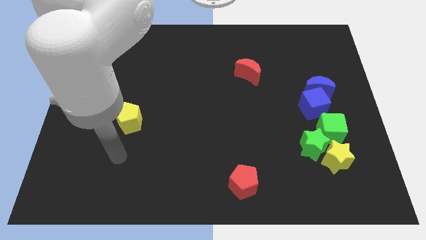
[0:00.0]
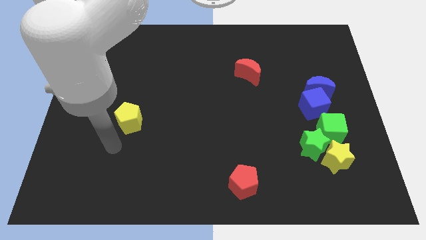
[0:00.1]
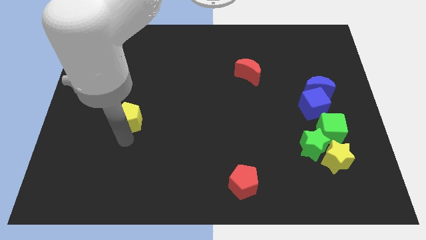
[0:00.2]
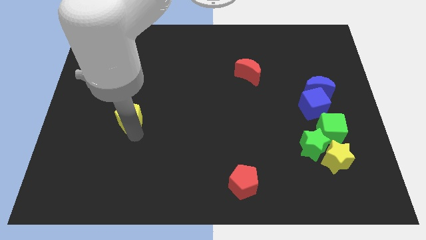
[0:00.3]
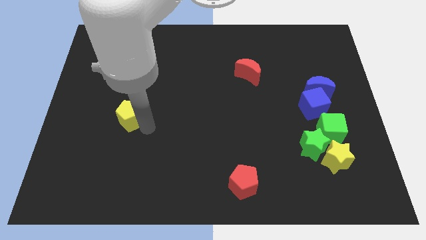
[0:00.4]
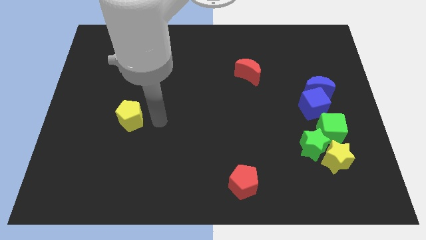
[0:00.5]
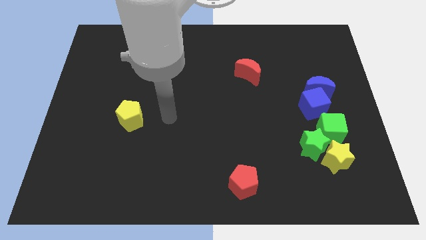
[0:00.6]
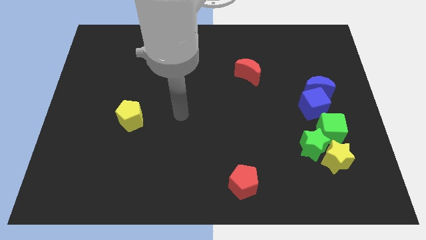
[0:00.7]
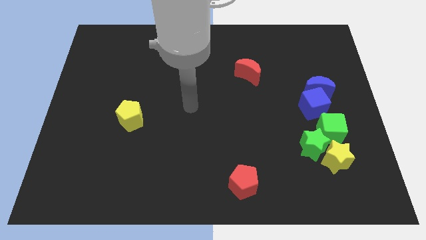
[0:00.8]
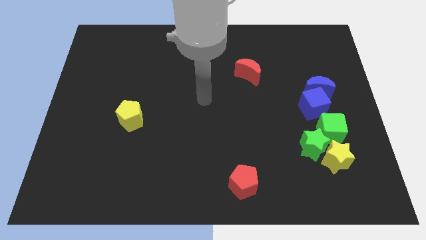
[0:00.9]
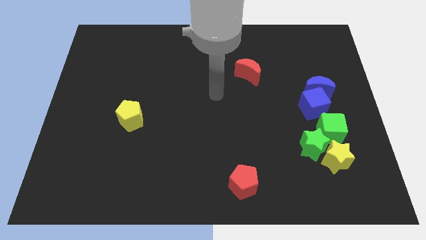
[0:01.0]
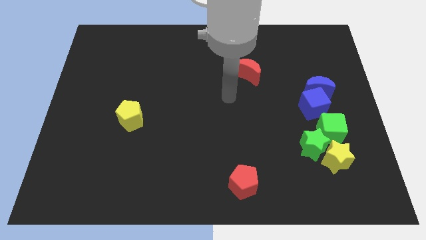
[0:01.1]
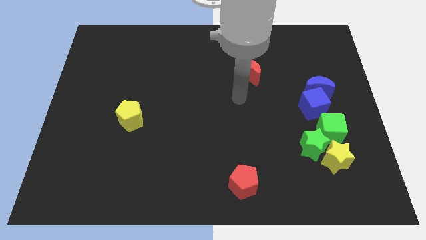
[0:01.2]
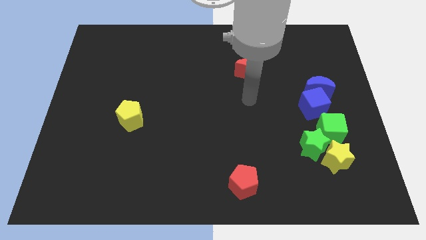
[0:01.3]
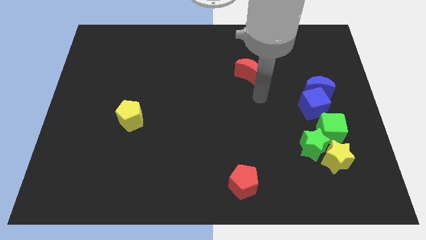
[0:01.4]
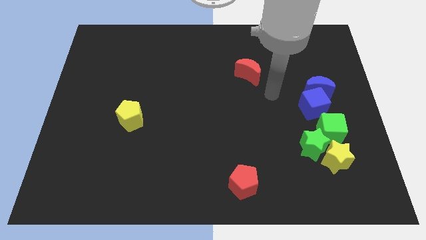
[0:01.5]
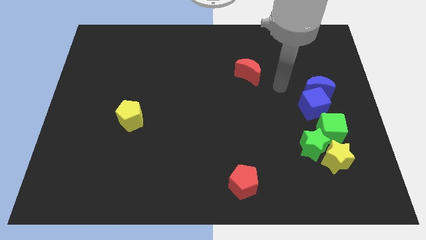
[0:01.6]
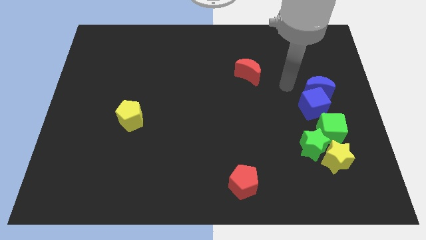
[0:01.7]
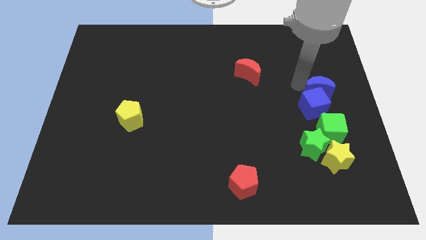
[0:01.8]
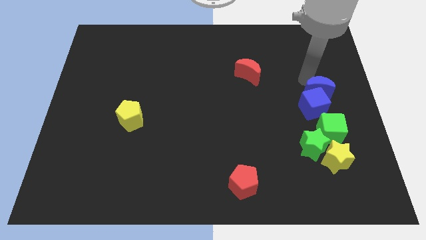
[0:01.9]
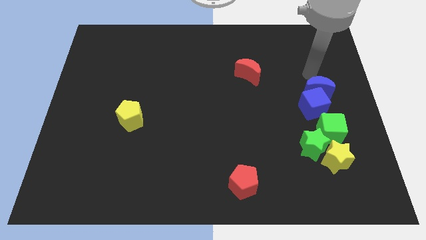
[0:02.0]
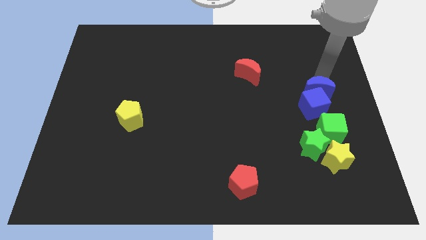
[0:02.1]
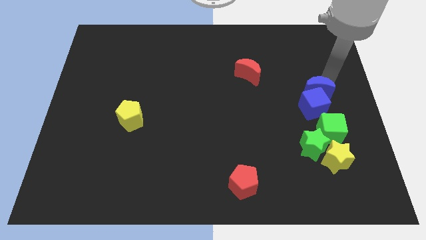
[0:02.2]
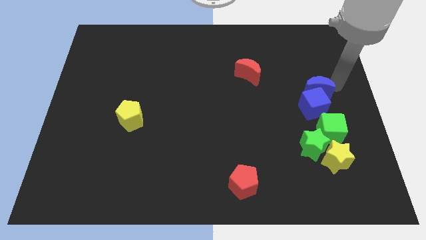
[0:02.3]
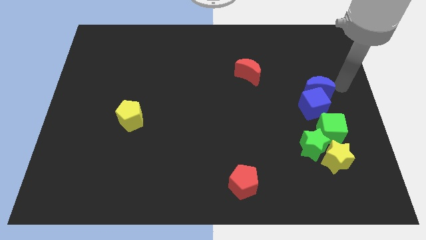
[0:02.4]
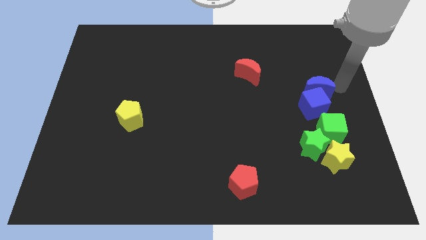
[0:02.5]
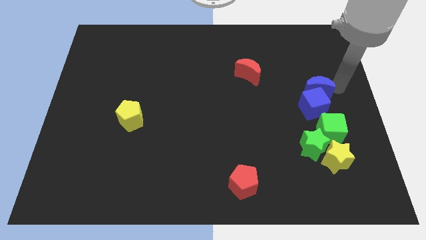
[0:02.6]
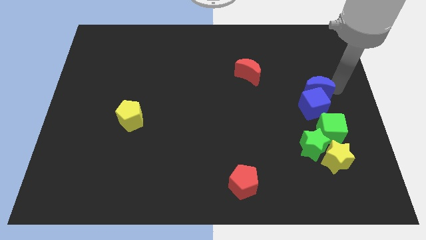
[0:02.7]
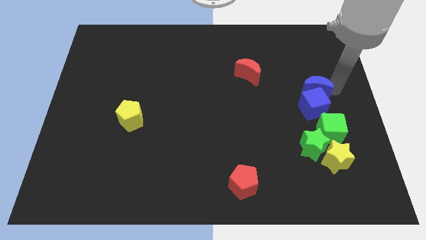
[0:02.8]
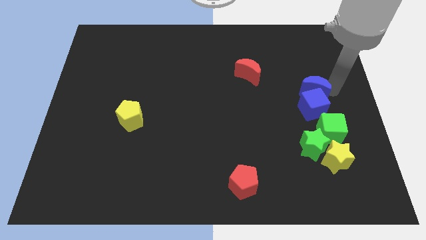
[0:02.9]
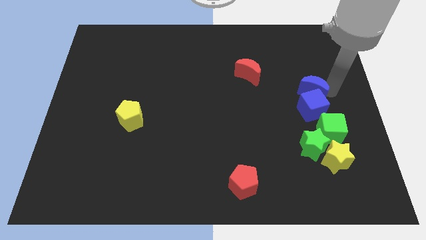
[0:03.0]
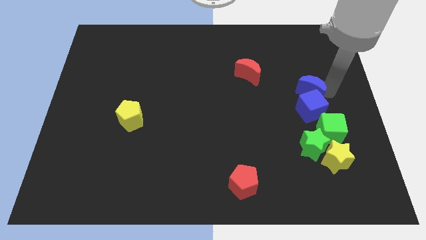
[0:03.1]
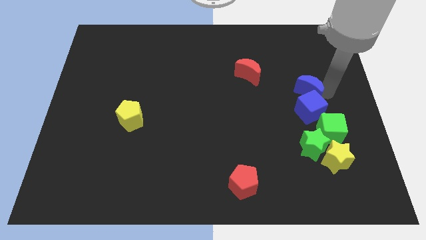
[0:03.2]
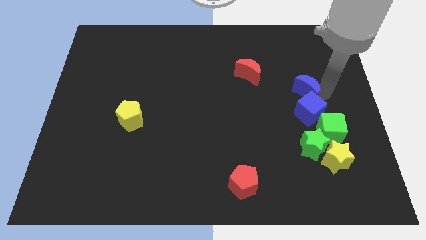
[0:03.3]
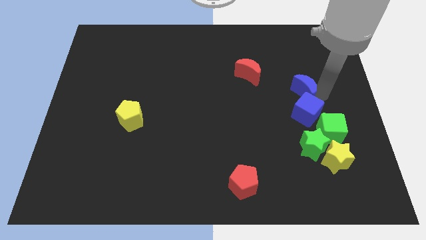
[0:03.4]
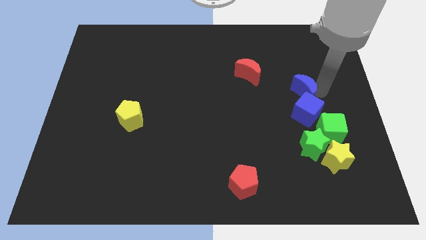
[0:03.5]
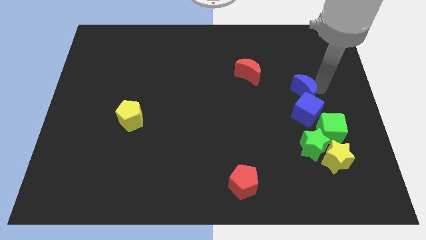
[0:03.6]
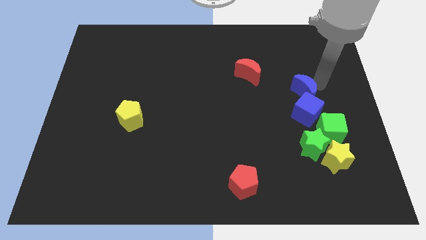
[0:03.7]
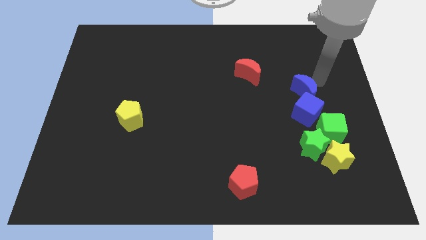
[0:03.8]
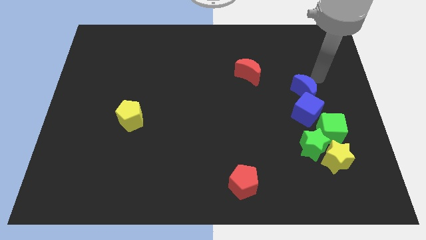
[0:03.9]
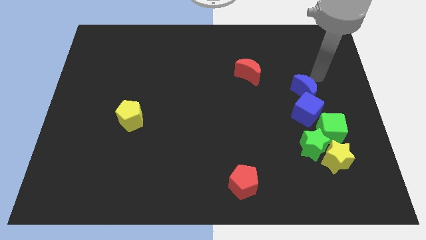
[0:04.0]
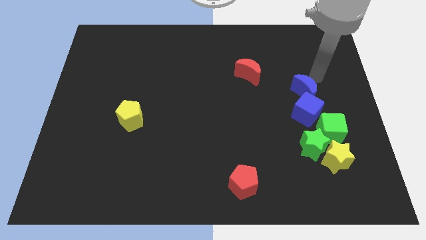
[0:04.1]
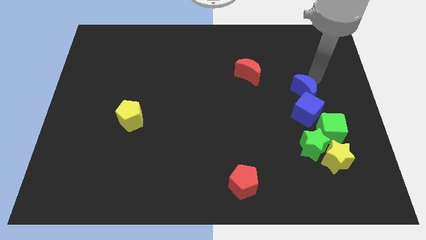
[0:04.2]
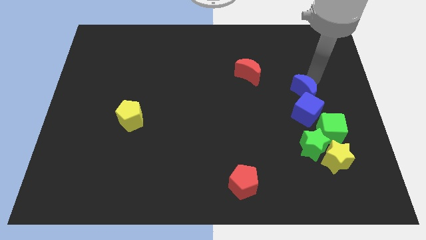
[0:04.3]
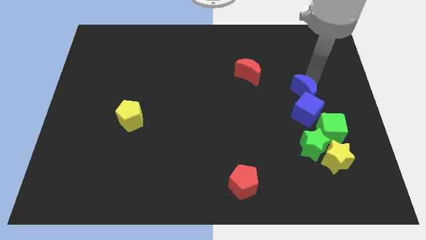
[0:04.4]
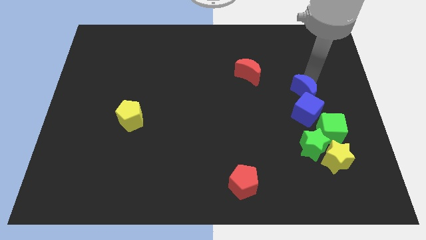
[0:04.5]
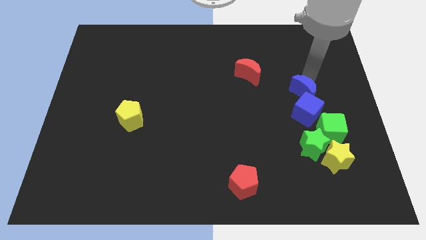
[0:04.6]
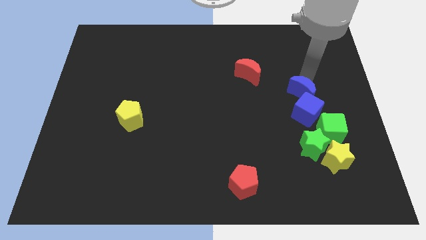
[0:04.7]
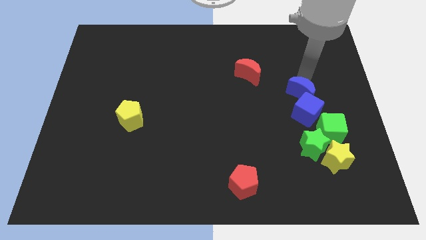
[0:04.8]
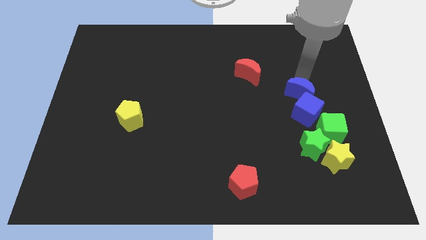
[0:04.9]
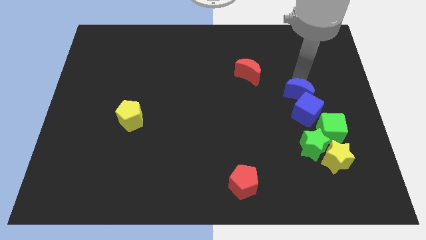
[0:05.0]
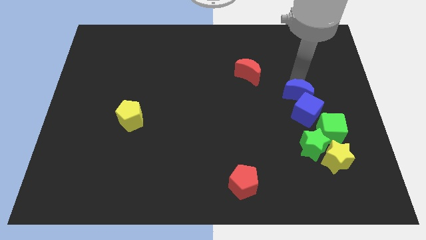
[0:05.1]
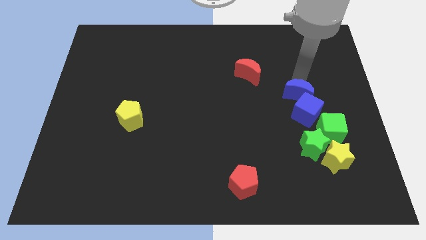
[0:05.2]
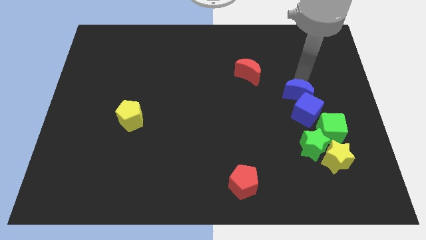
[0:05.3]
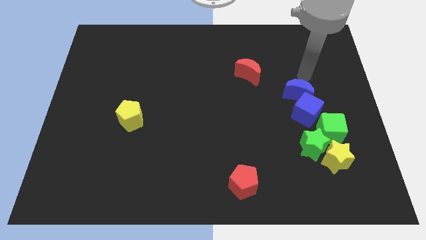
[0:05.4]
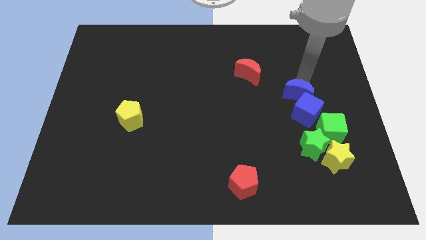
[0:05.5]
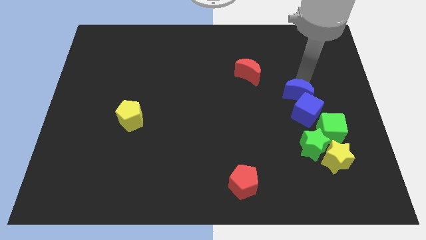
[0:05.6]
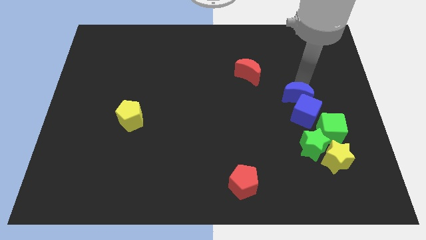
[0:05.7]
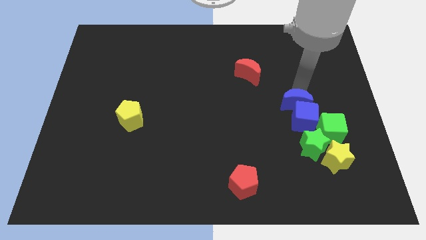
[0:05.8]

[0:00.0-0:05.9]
push the blue moon down and left diagonally a little bit

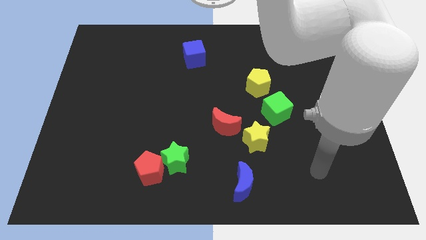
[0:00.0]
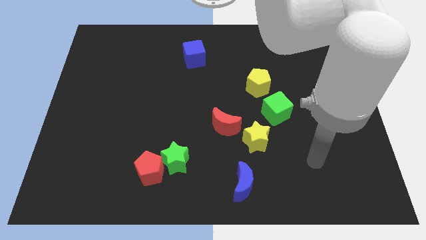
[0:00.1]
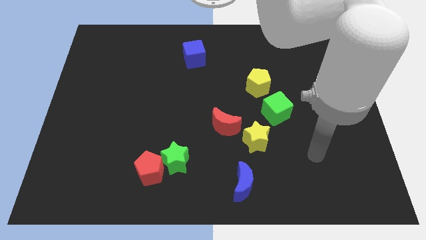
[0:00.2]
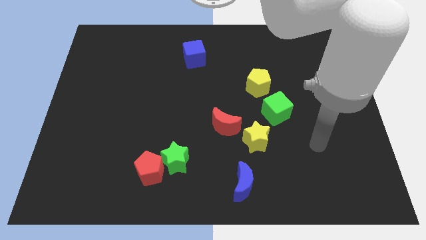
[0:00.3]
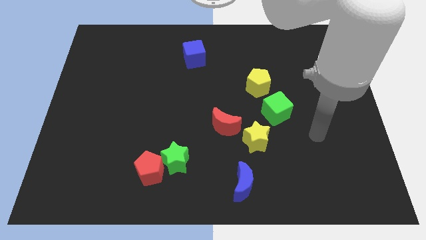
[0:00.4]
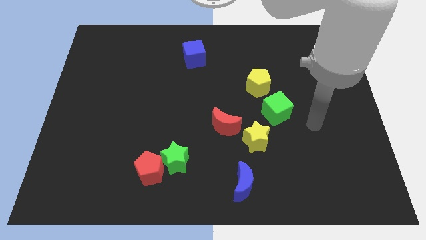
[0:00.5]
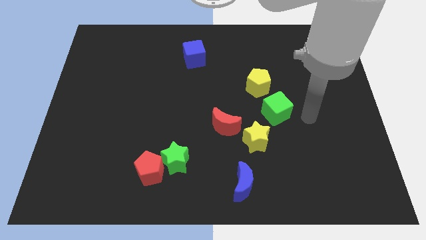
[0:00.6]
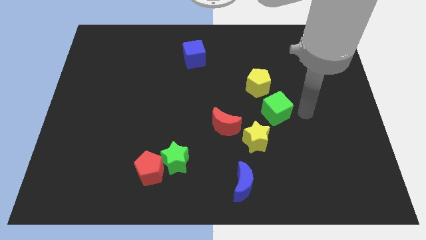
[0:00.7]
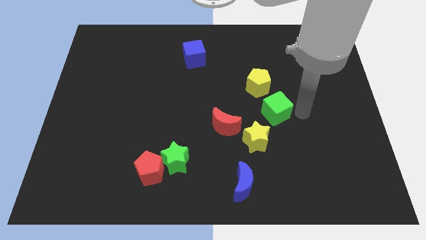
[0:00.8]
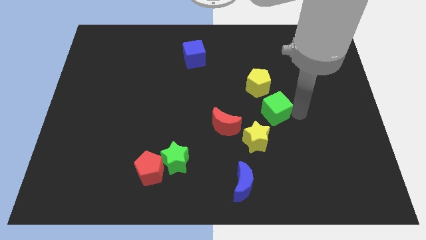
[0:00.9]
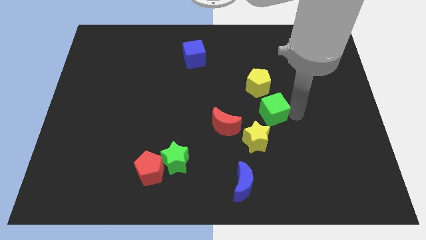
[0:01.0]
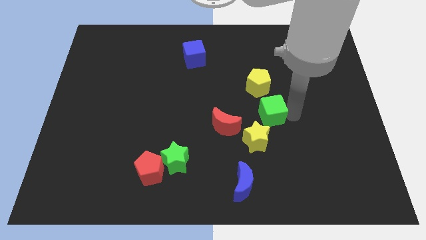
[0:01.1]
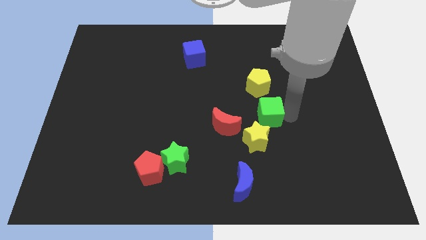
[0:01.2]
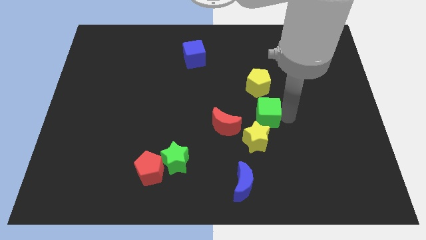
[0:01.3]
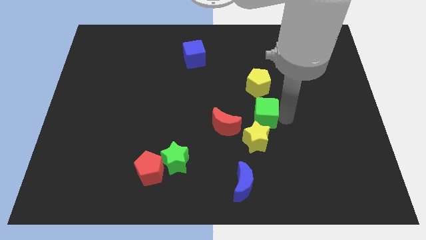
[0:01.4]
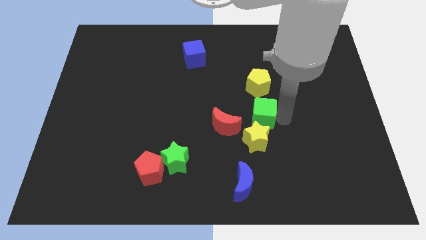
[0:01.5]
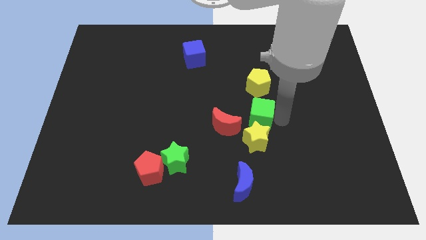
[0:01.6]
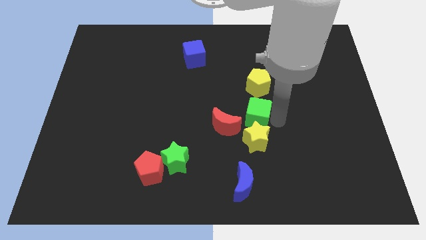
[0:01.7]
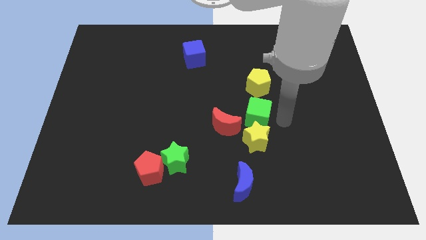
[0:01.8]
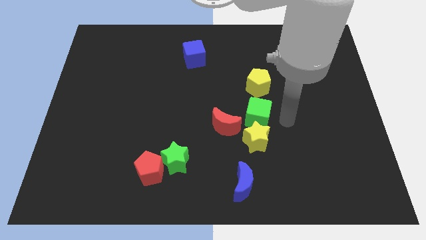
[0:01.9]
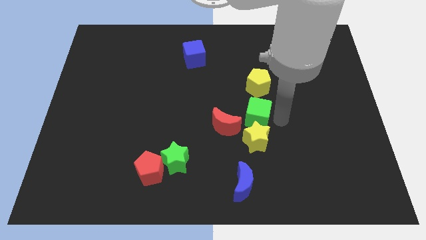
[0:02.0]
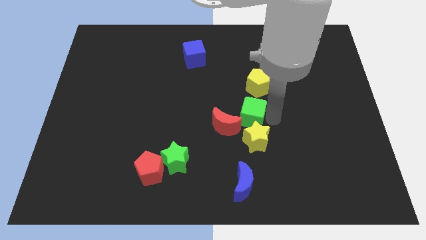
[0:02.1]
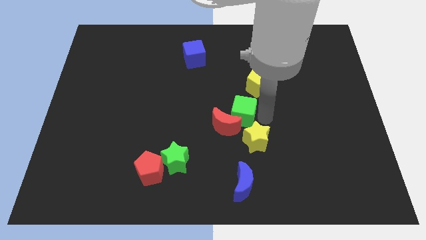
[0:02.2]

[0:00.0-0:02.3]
move the green cube left a little bit
